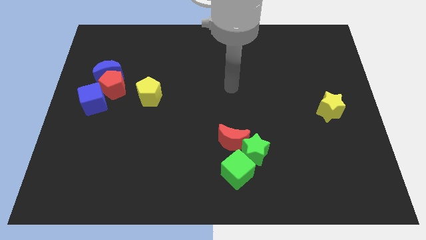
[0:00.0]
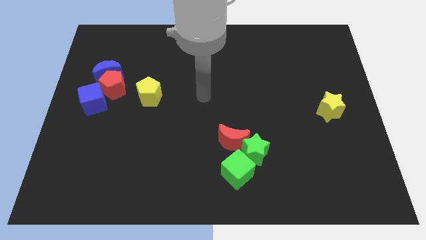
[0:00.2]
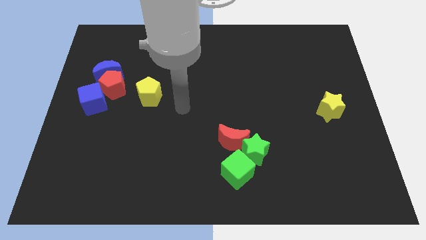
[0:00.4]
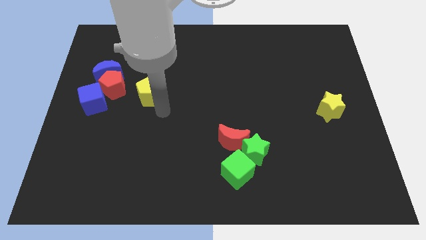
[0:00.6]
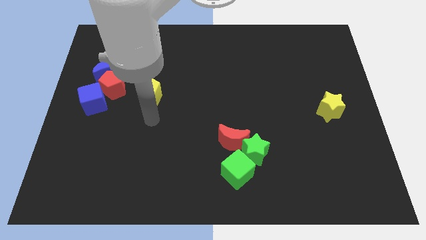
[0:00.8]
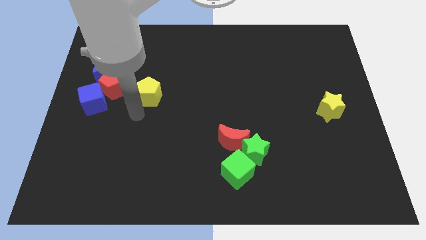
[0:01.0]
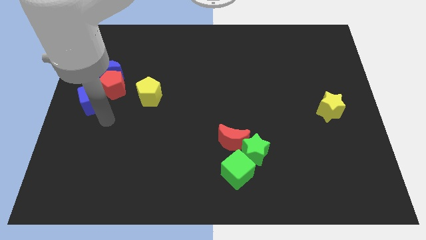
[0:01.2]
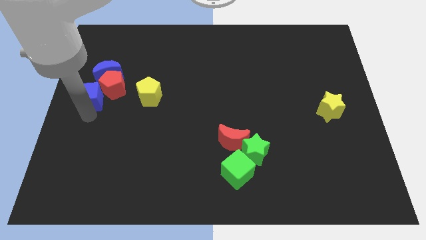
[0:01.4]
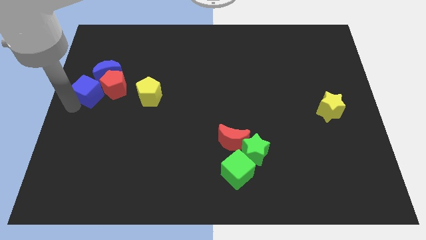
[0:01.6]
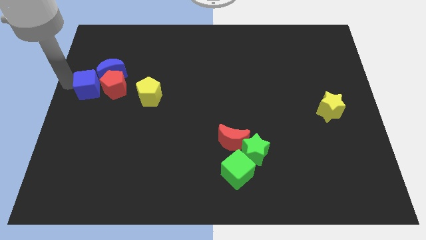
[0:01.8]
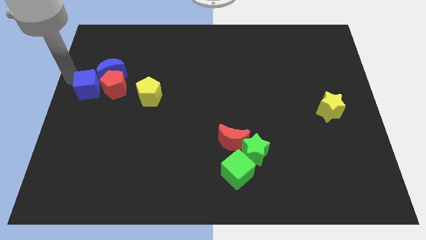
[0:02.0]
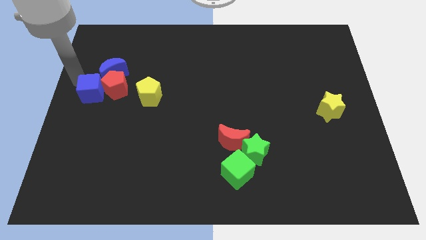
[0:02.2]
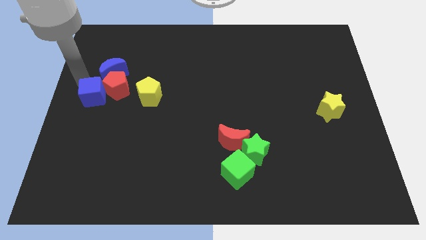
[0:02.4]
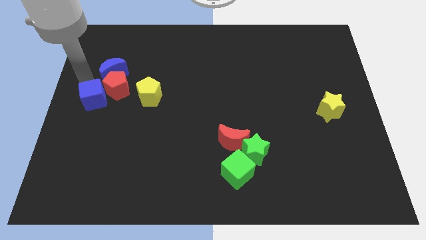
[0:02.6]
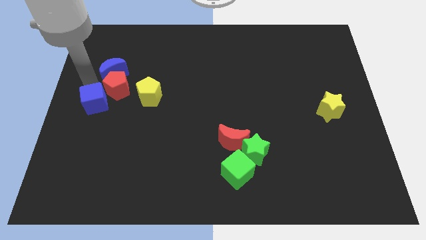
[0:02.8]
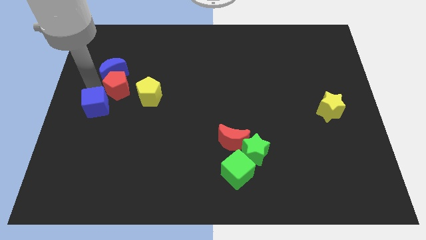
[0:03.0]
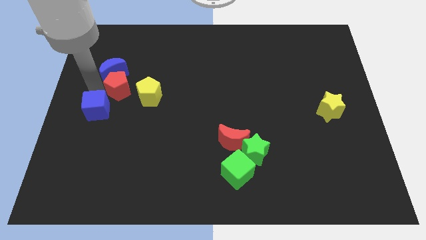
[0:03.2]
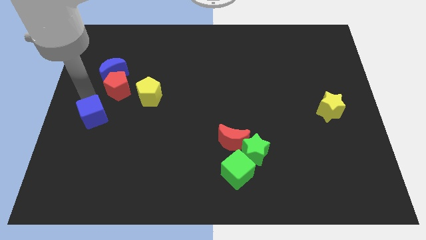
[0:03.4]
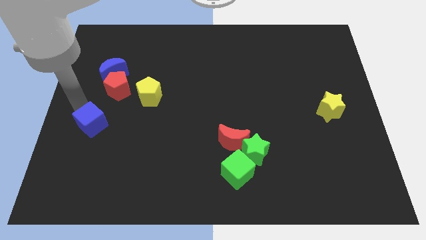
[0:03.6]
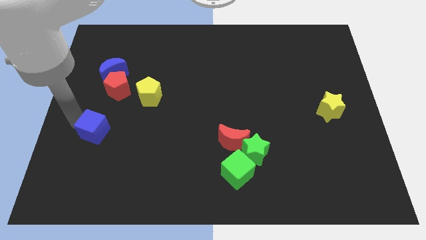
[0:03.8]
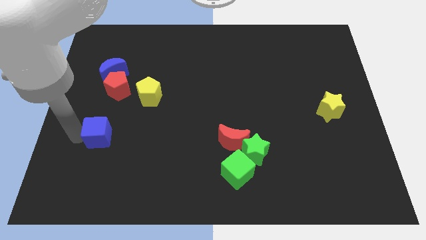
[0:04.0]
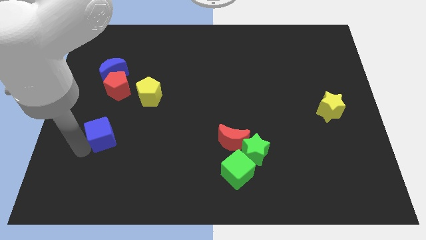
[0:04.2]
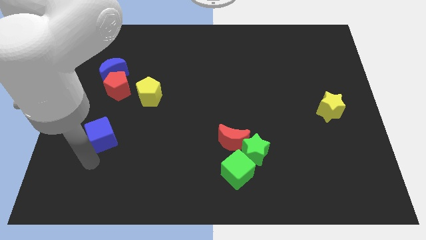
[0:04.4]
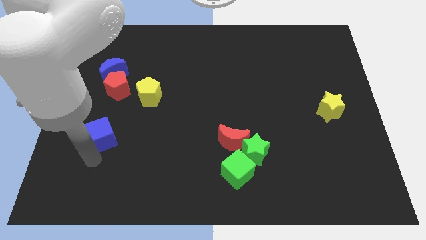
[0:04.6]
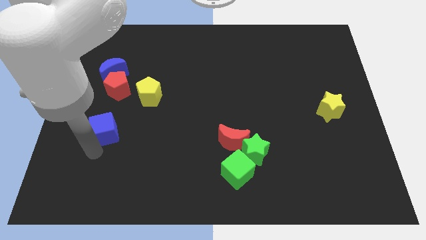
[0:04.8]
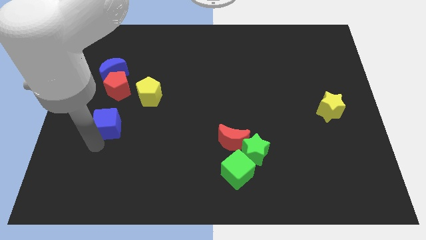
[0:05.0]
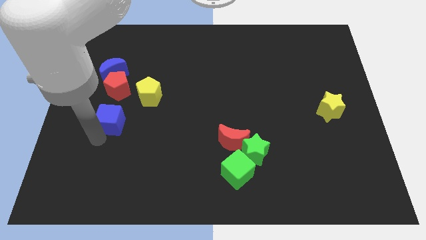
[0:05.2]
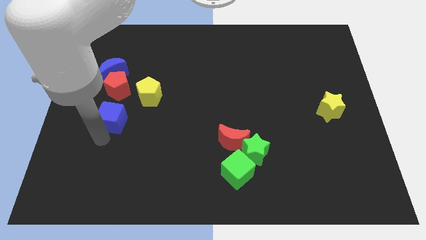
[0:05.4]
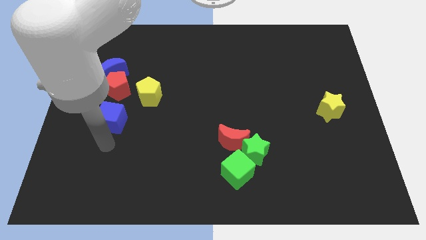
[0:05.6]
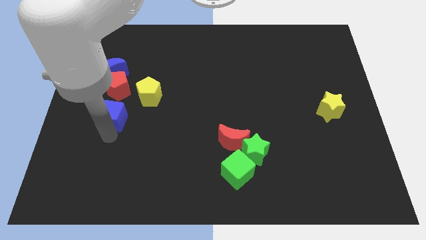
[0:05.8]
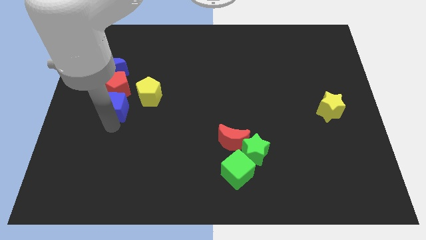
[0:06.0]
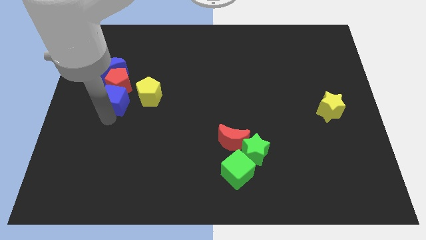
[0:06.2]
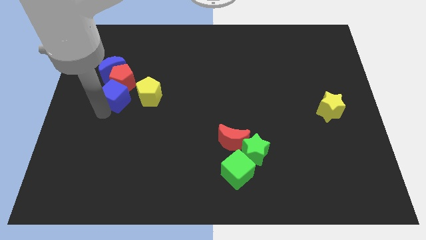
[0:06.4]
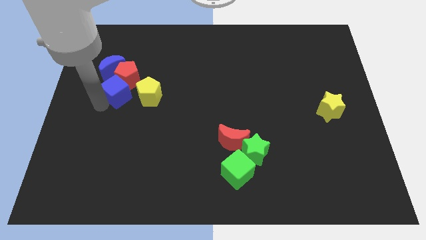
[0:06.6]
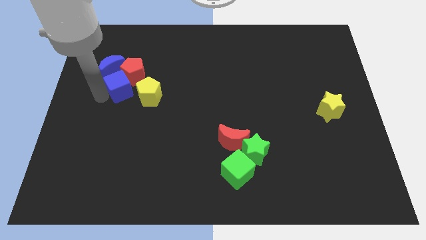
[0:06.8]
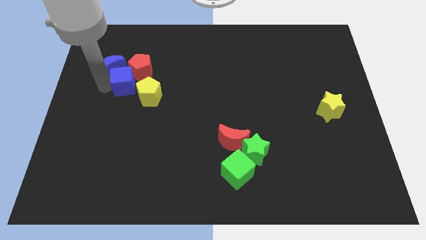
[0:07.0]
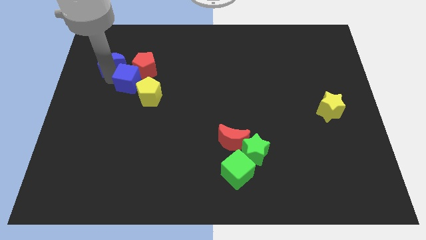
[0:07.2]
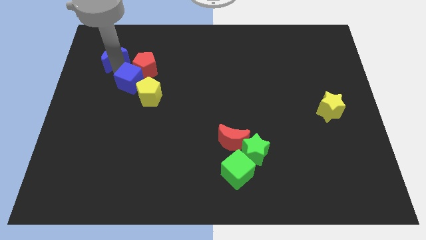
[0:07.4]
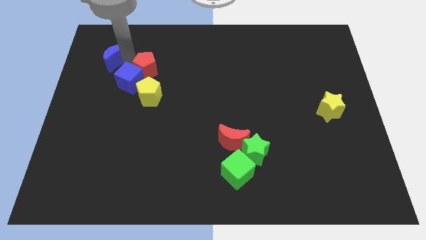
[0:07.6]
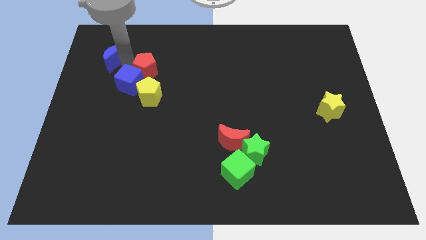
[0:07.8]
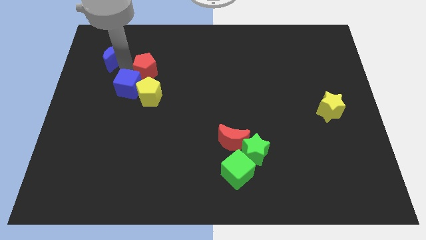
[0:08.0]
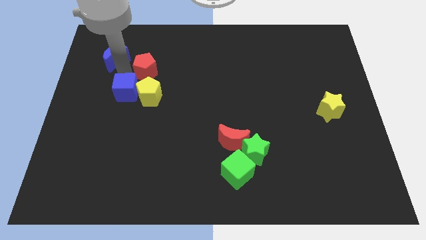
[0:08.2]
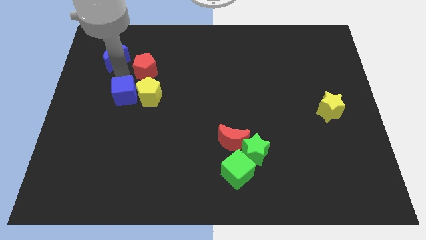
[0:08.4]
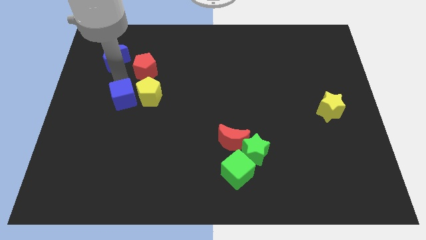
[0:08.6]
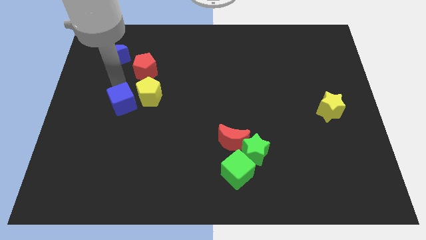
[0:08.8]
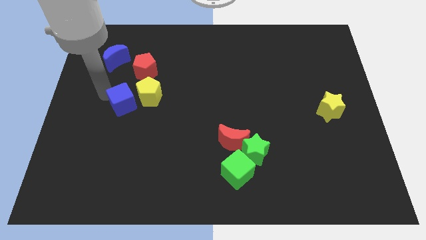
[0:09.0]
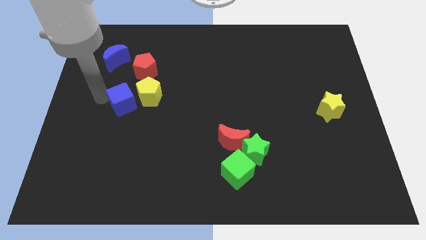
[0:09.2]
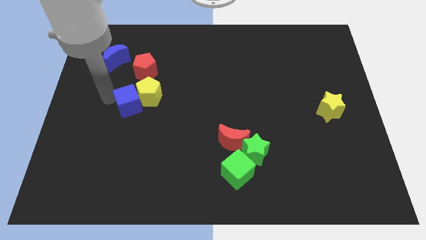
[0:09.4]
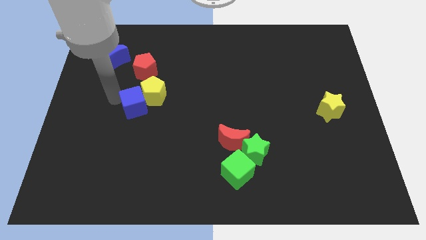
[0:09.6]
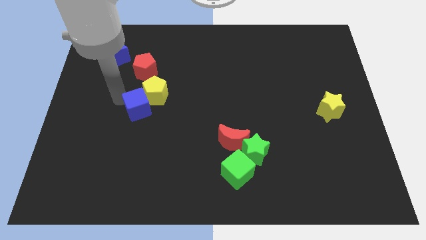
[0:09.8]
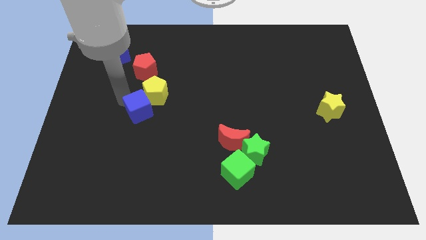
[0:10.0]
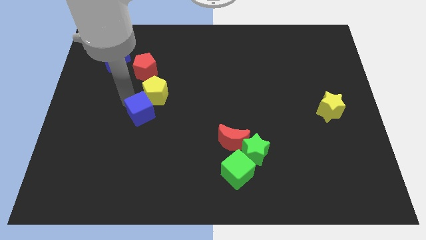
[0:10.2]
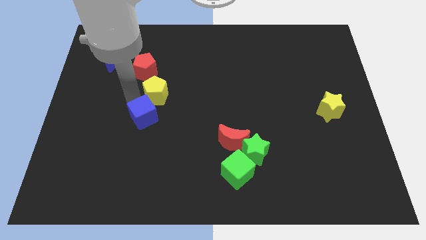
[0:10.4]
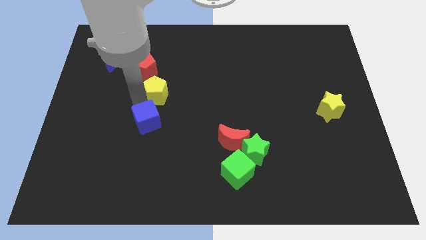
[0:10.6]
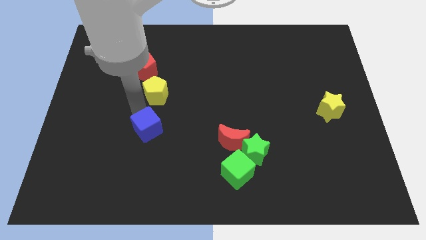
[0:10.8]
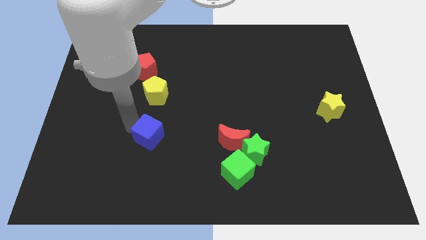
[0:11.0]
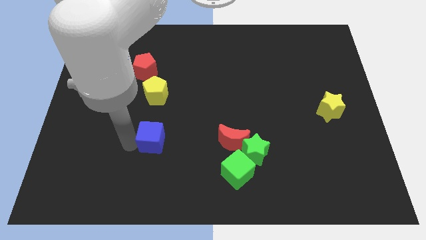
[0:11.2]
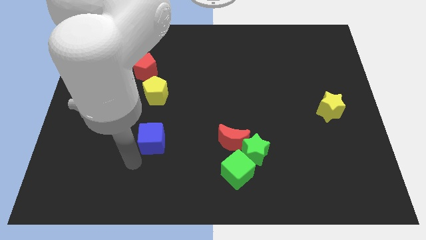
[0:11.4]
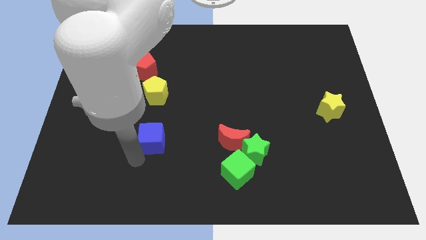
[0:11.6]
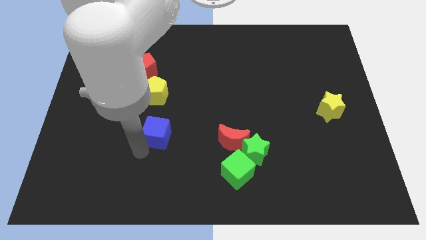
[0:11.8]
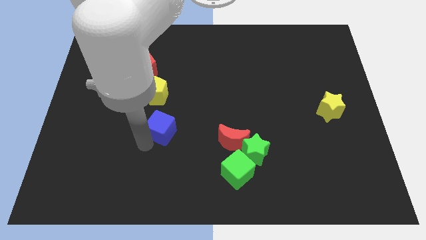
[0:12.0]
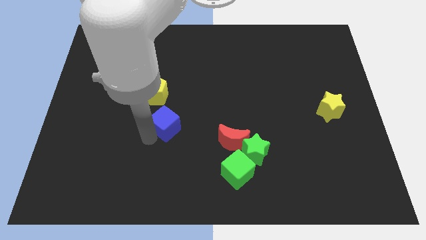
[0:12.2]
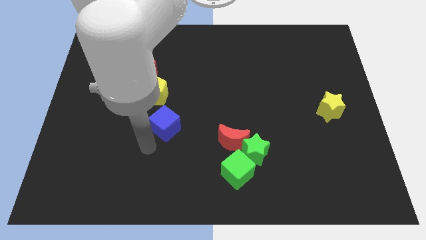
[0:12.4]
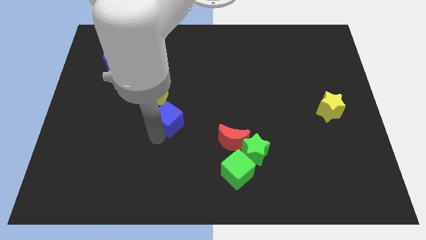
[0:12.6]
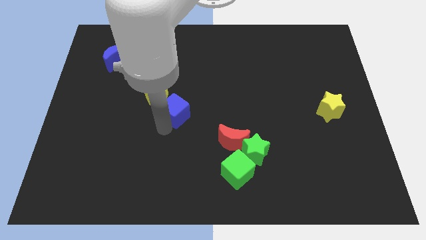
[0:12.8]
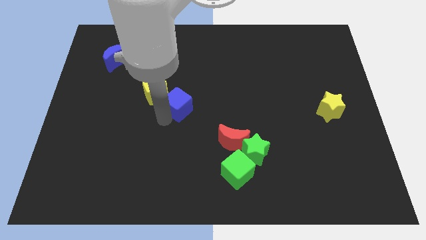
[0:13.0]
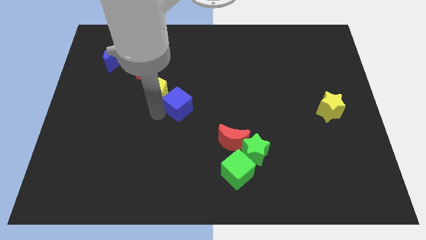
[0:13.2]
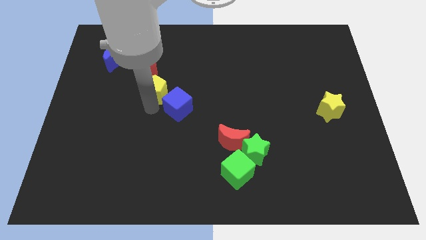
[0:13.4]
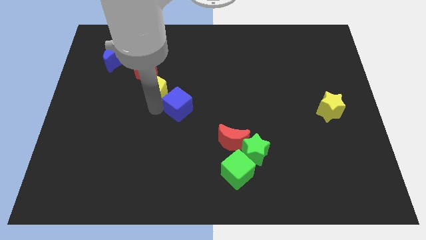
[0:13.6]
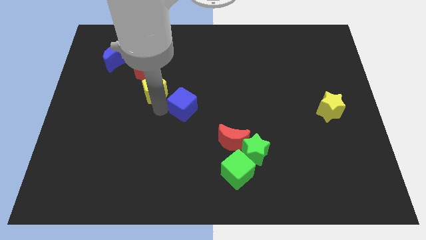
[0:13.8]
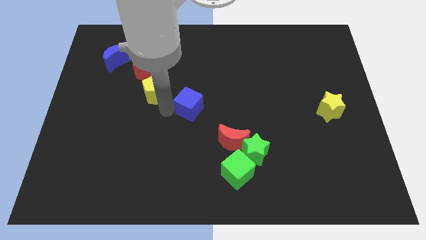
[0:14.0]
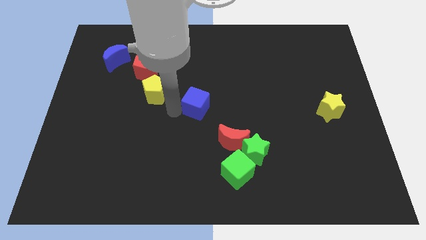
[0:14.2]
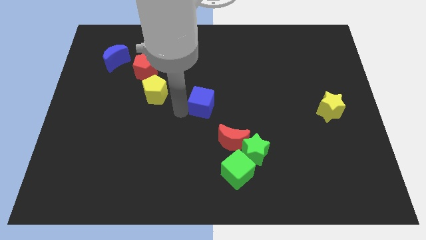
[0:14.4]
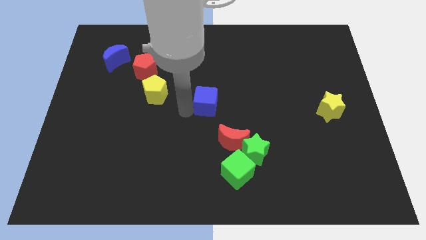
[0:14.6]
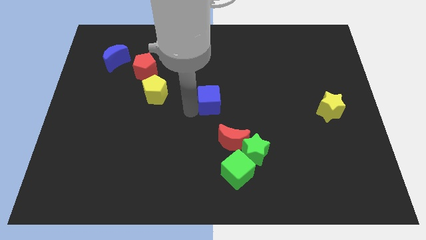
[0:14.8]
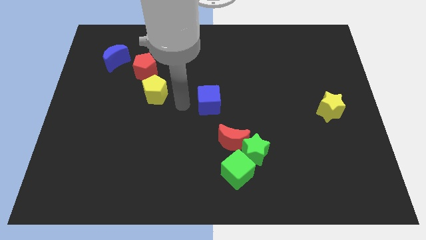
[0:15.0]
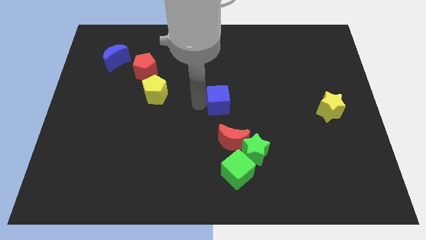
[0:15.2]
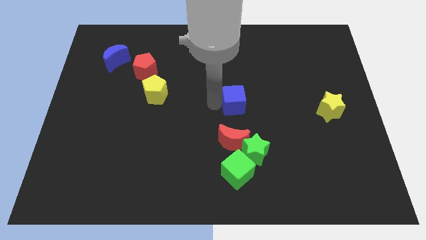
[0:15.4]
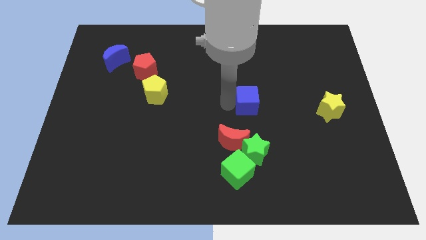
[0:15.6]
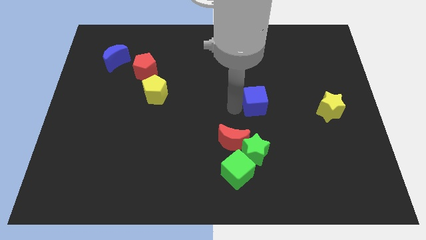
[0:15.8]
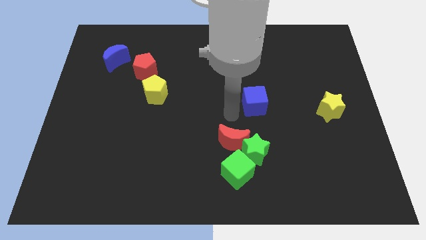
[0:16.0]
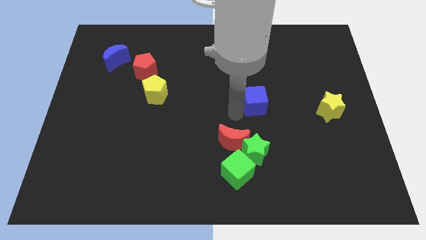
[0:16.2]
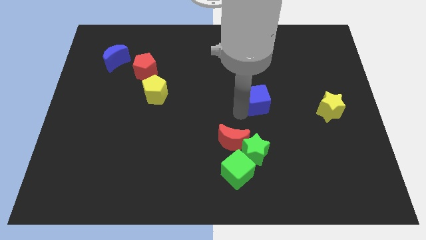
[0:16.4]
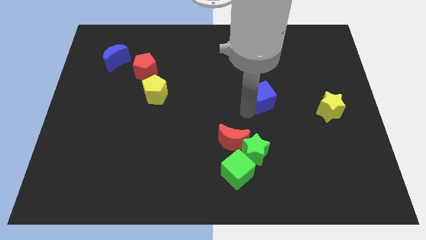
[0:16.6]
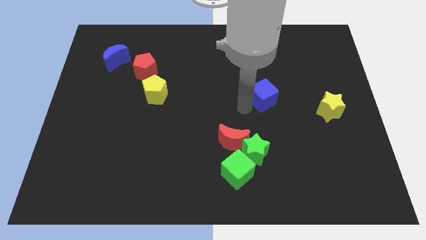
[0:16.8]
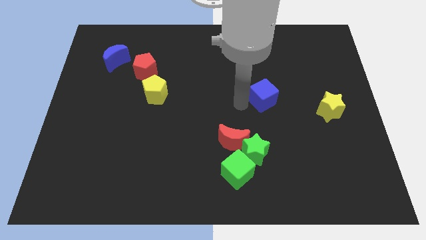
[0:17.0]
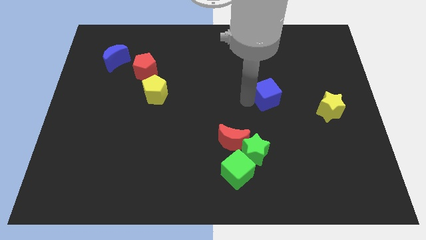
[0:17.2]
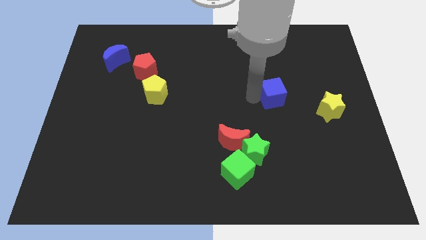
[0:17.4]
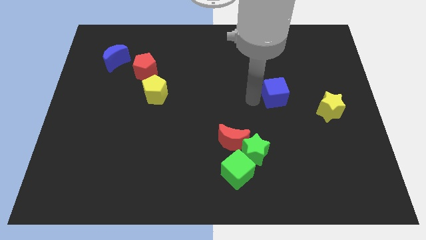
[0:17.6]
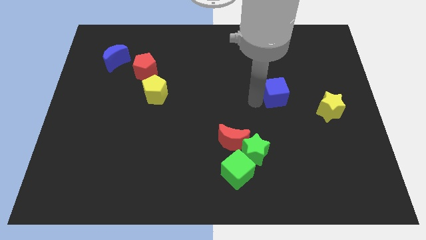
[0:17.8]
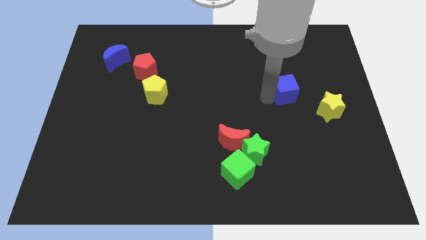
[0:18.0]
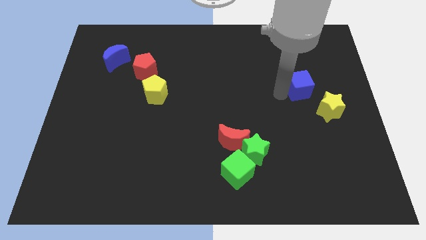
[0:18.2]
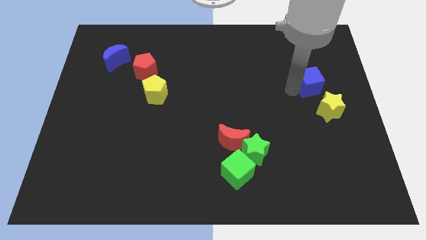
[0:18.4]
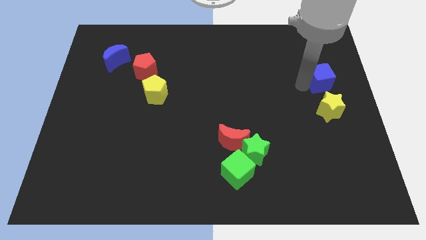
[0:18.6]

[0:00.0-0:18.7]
move the blue cube to the right side of the board
